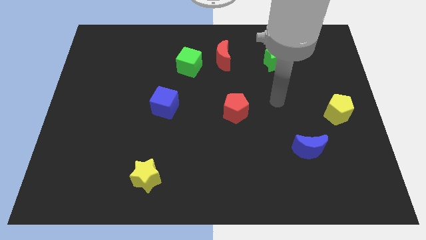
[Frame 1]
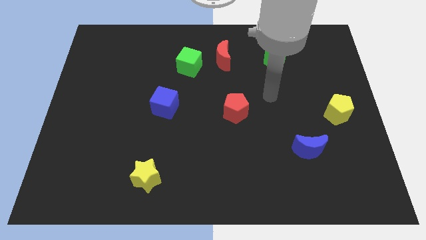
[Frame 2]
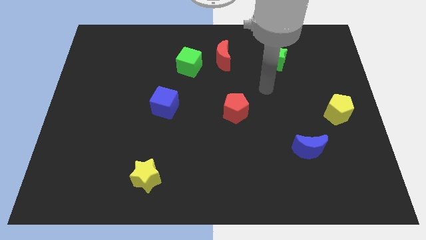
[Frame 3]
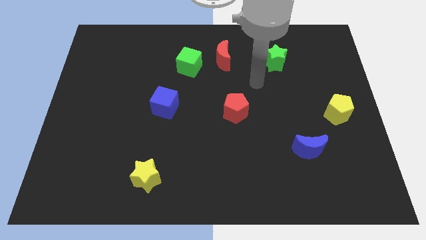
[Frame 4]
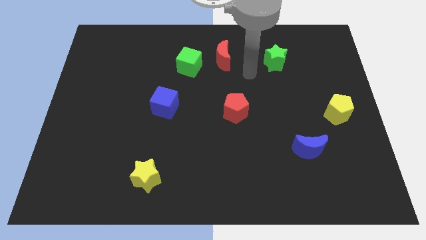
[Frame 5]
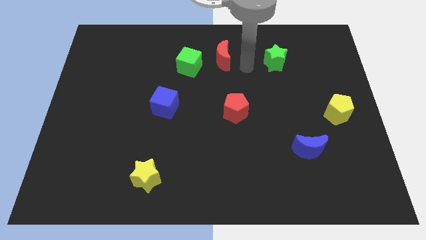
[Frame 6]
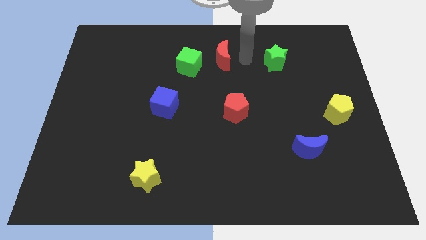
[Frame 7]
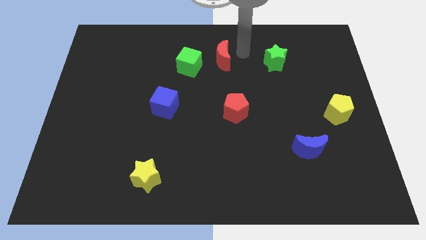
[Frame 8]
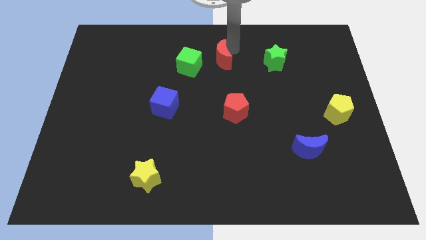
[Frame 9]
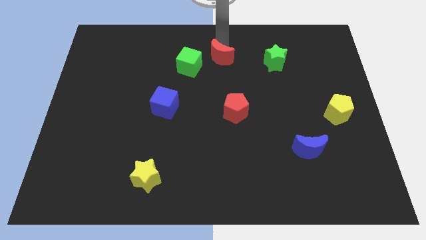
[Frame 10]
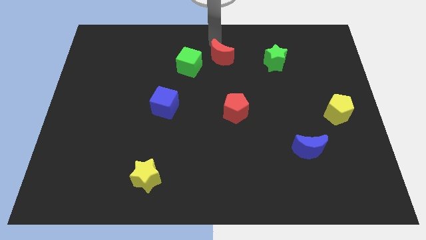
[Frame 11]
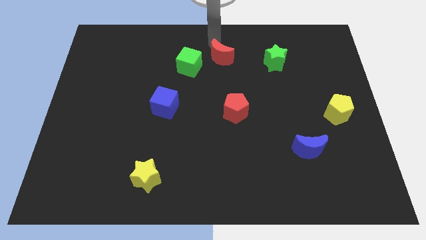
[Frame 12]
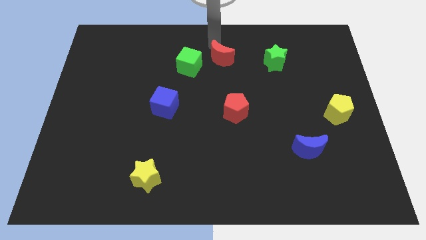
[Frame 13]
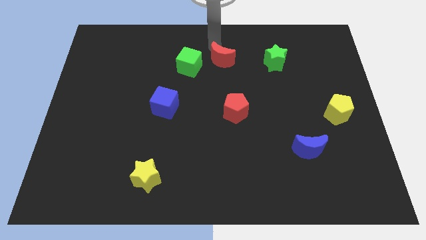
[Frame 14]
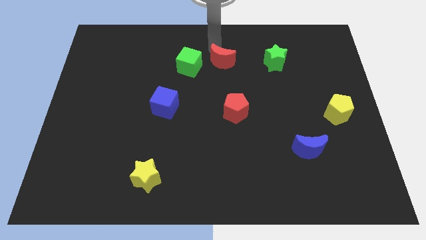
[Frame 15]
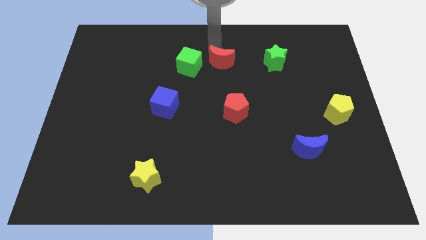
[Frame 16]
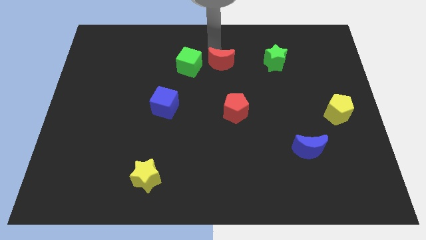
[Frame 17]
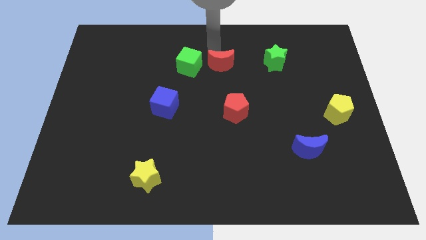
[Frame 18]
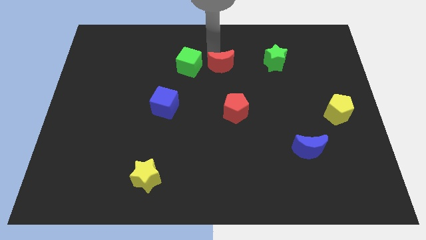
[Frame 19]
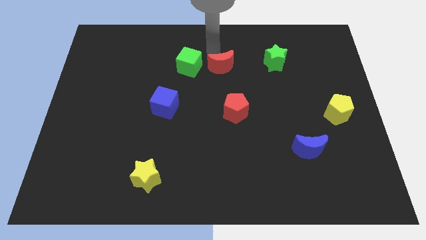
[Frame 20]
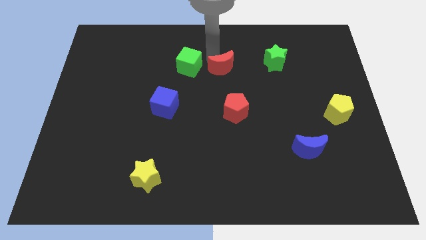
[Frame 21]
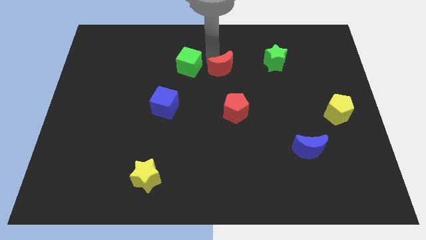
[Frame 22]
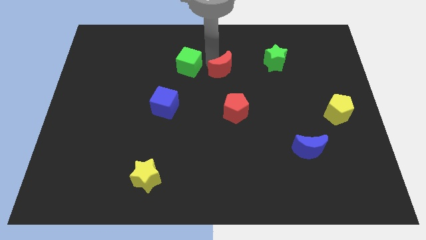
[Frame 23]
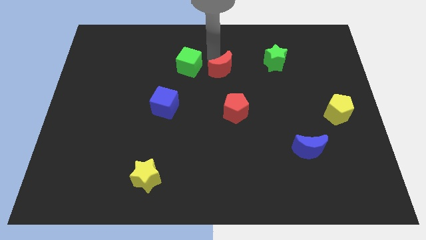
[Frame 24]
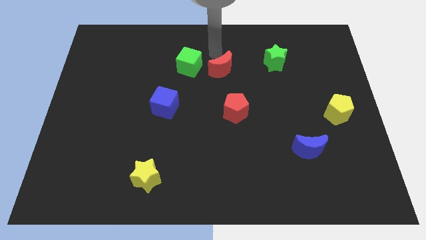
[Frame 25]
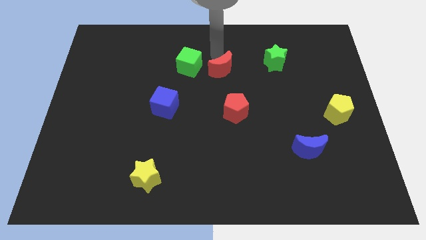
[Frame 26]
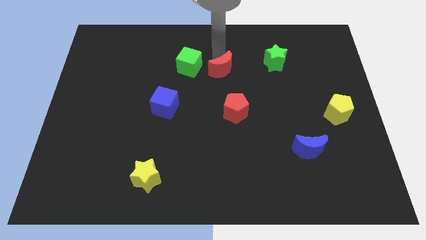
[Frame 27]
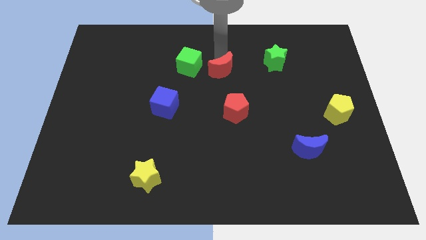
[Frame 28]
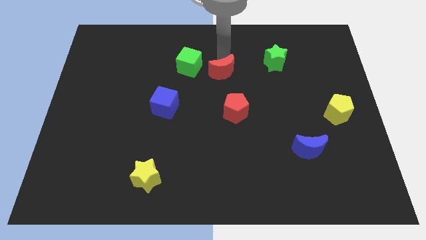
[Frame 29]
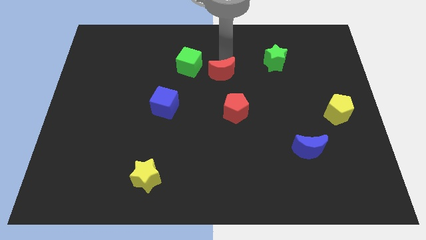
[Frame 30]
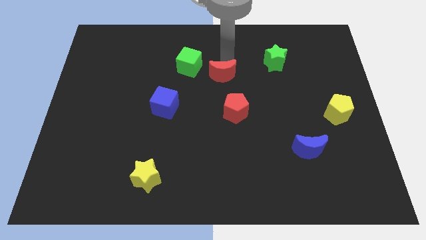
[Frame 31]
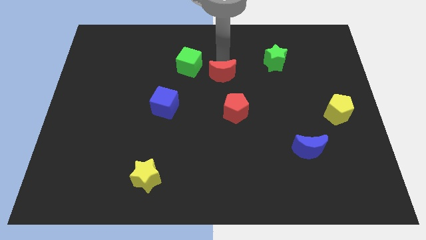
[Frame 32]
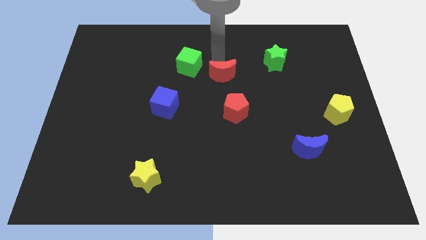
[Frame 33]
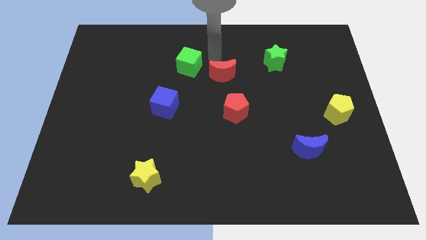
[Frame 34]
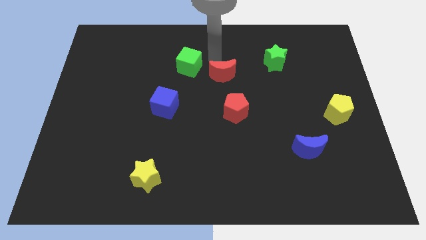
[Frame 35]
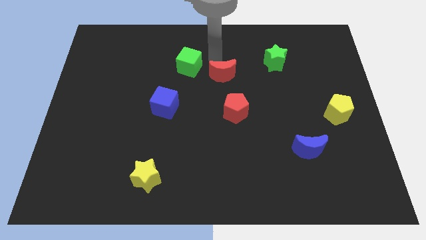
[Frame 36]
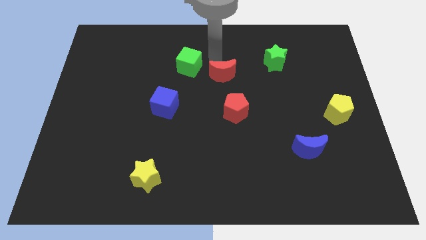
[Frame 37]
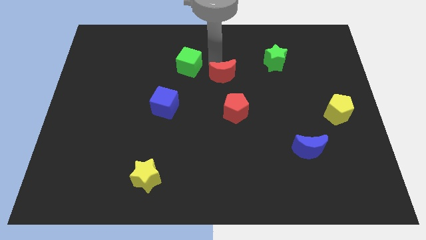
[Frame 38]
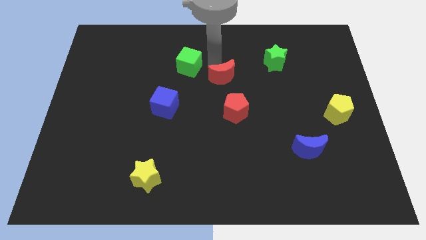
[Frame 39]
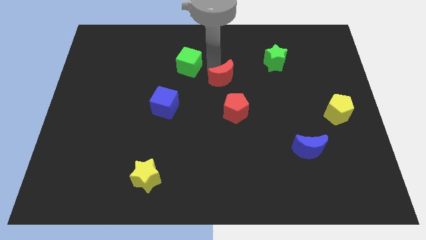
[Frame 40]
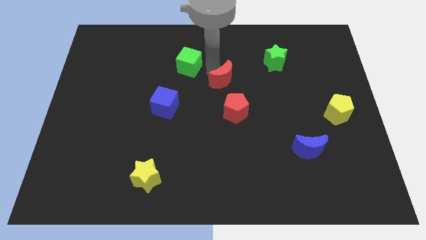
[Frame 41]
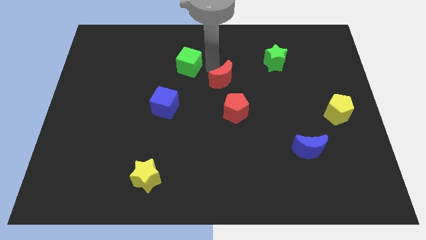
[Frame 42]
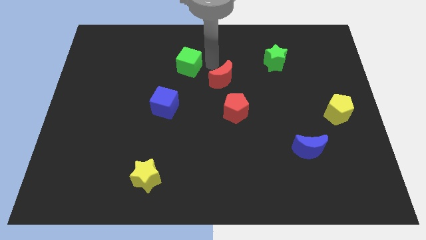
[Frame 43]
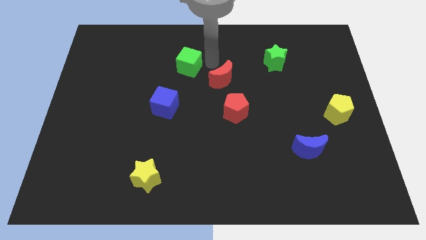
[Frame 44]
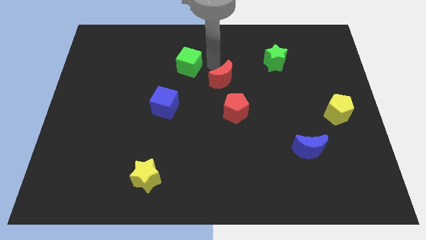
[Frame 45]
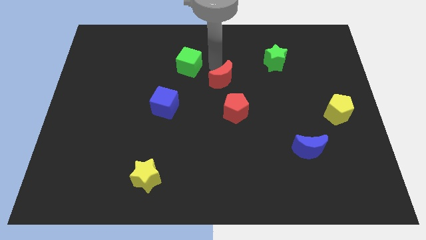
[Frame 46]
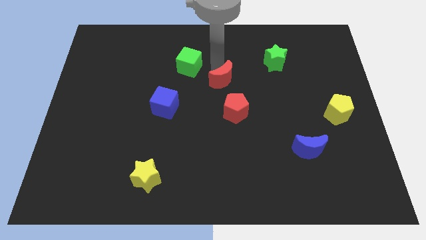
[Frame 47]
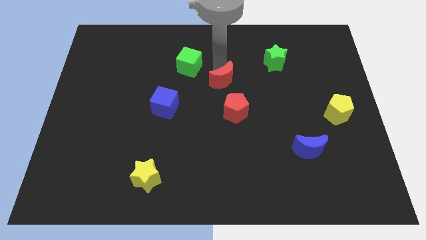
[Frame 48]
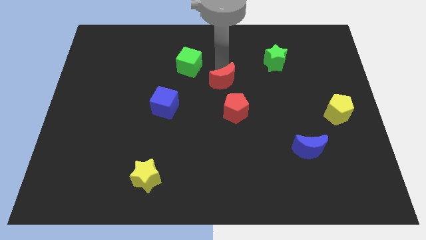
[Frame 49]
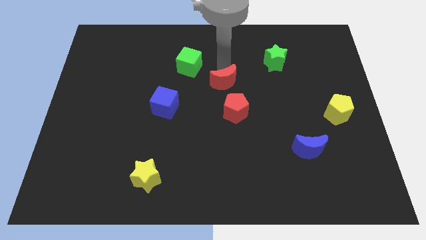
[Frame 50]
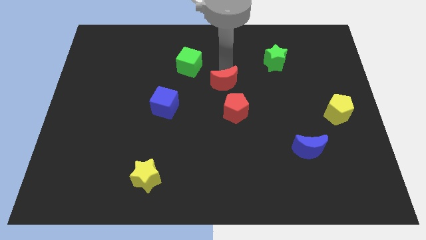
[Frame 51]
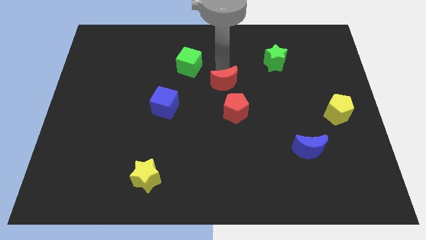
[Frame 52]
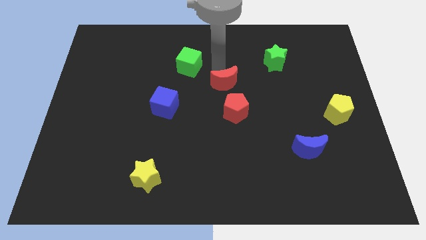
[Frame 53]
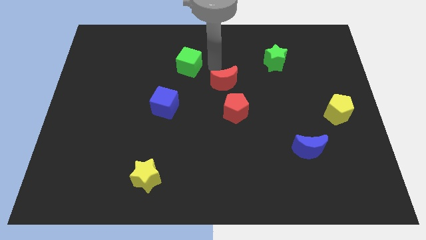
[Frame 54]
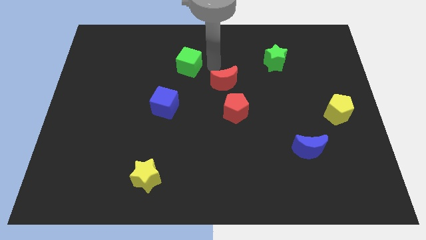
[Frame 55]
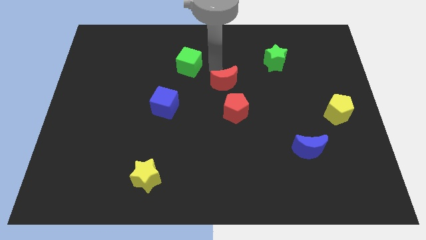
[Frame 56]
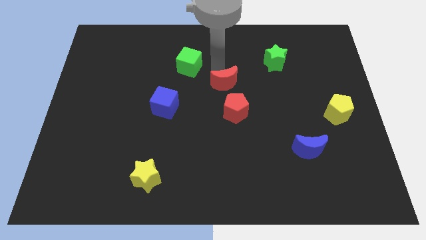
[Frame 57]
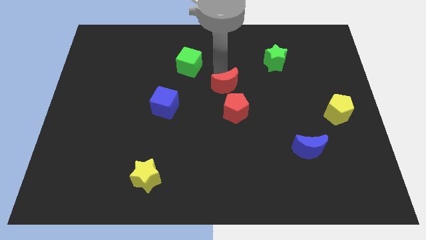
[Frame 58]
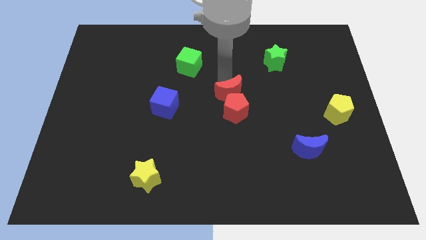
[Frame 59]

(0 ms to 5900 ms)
put the red moon towards the red pentagon

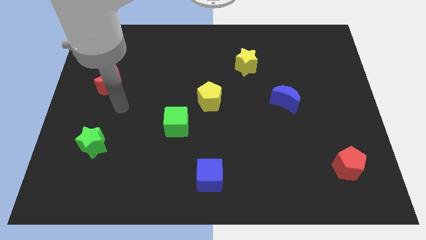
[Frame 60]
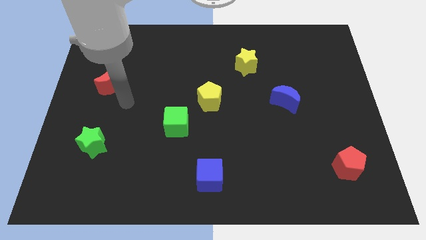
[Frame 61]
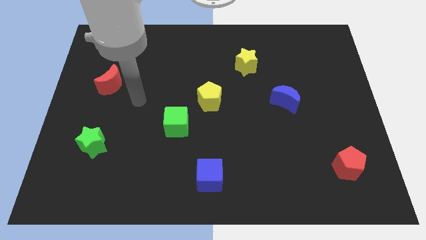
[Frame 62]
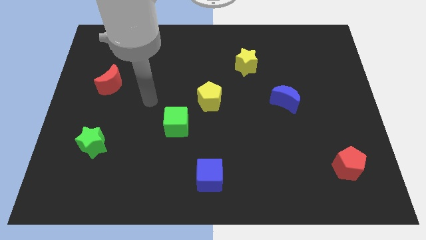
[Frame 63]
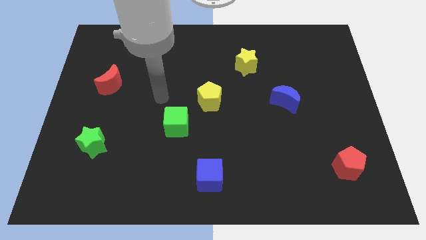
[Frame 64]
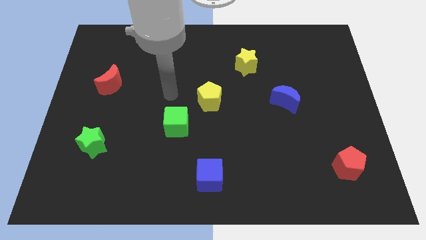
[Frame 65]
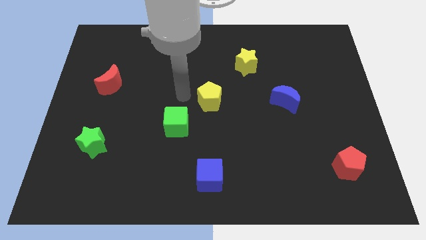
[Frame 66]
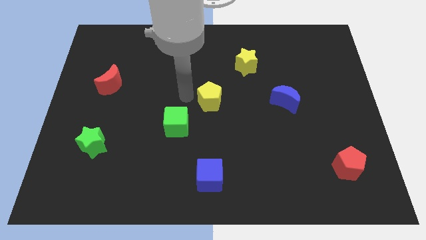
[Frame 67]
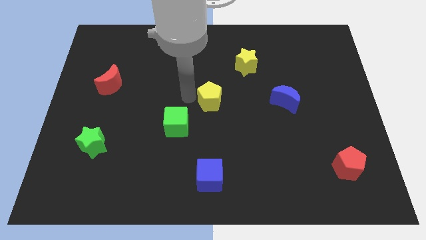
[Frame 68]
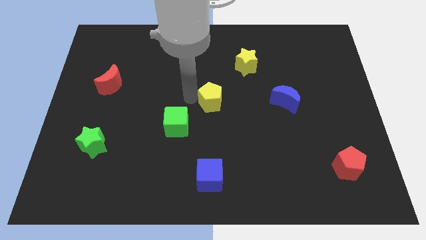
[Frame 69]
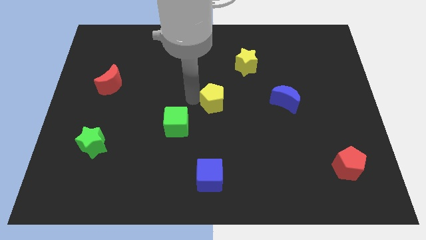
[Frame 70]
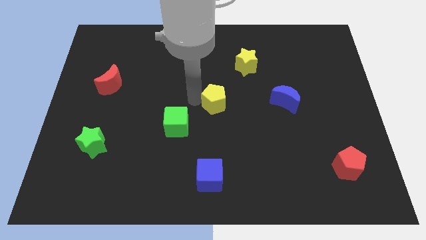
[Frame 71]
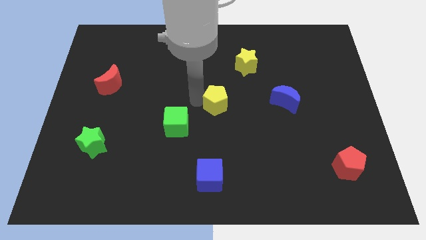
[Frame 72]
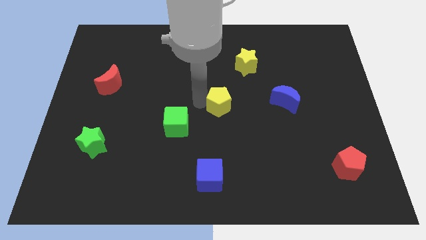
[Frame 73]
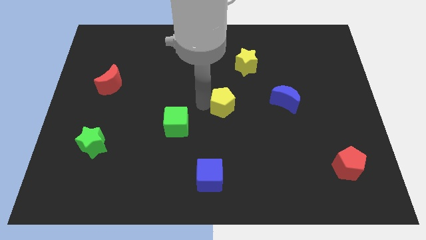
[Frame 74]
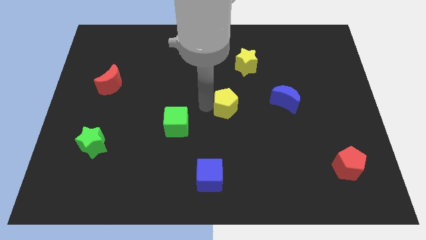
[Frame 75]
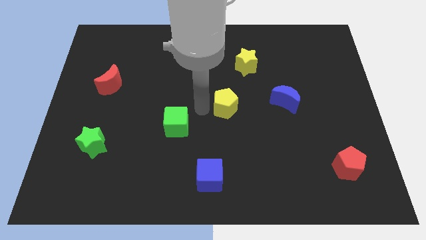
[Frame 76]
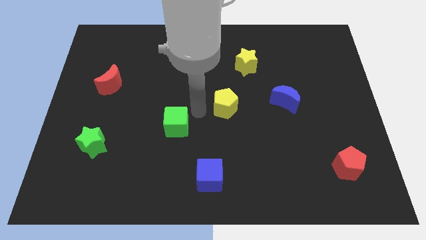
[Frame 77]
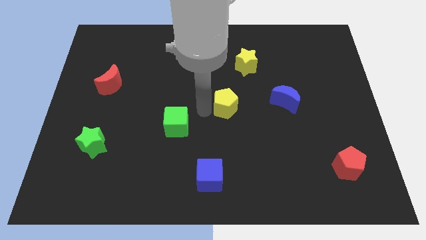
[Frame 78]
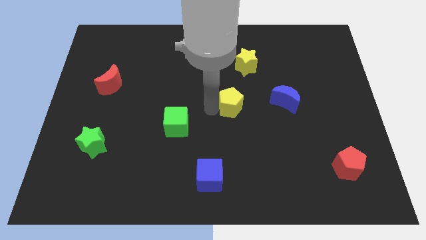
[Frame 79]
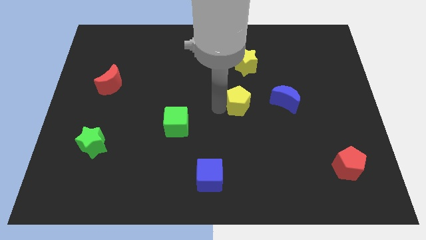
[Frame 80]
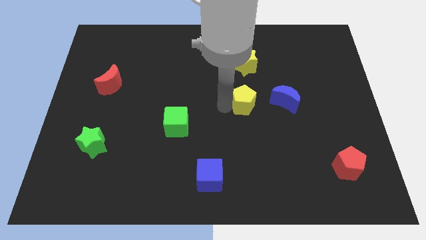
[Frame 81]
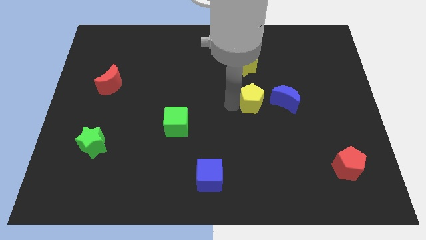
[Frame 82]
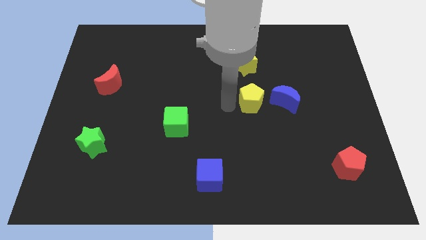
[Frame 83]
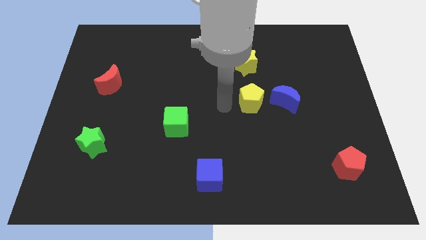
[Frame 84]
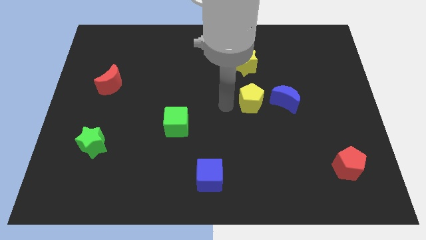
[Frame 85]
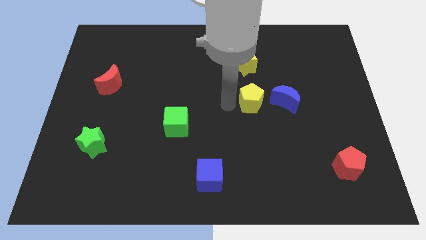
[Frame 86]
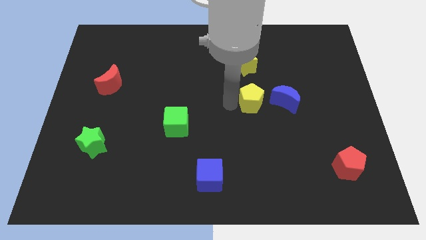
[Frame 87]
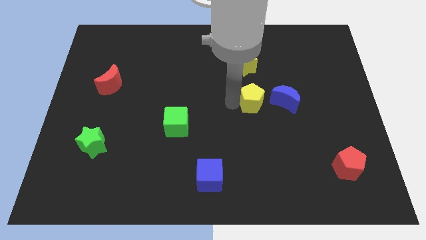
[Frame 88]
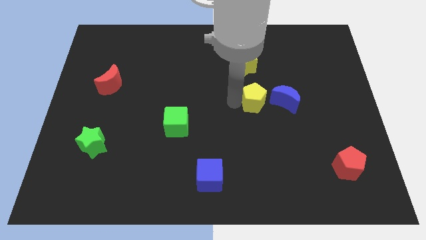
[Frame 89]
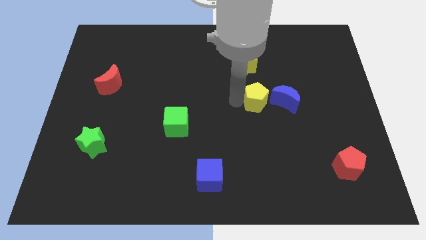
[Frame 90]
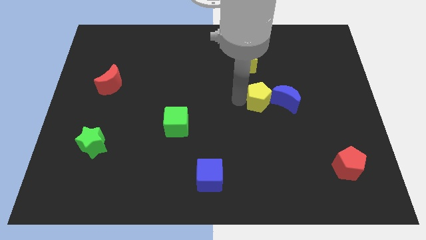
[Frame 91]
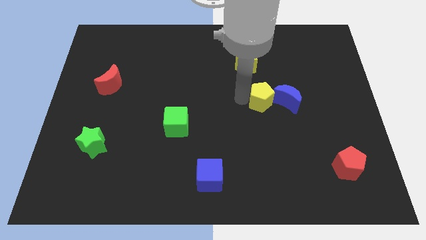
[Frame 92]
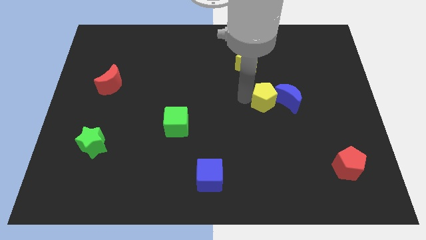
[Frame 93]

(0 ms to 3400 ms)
push the yellow pentagon to the blue moon
